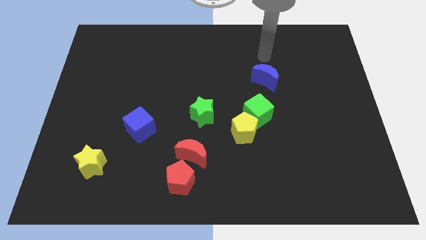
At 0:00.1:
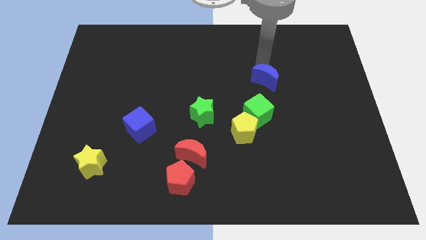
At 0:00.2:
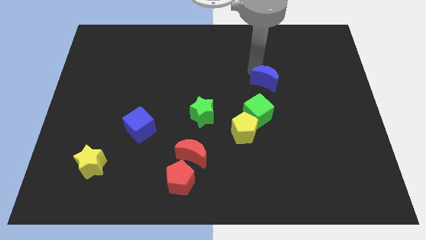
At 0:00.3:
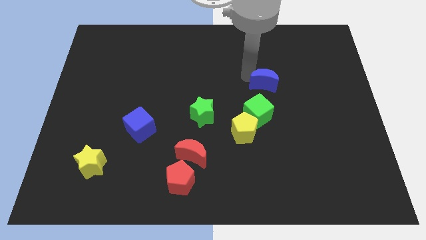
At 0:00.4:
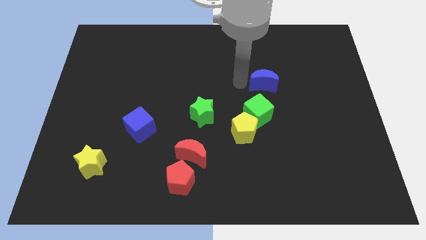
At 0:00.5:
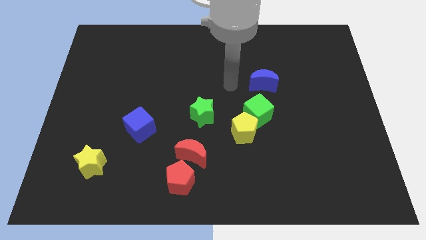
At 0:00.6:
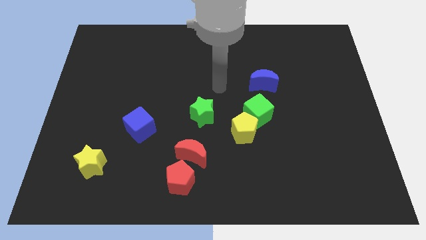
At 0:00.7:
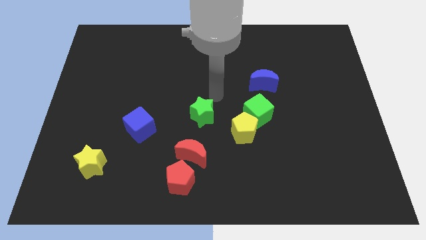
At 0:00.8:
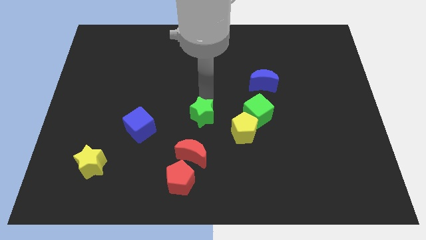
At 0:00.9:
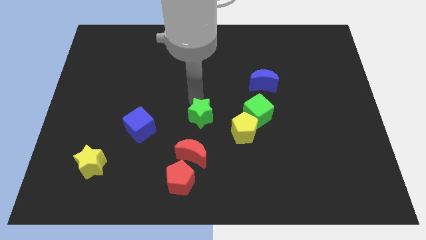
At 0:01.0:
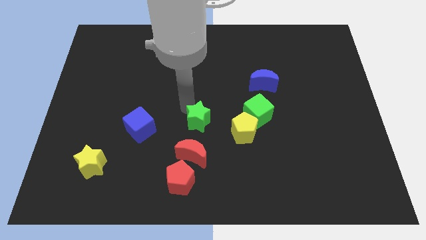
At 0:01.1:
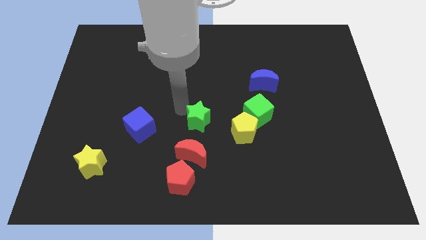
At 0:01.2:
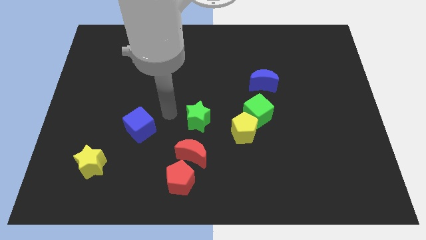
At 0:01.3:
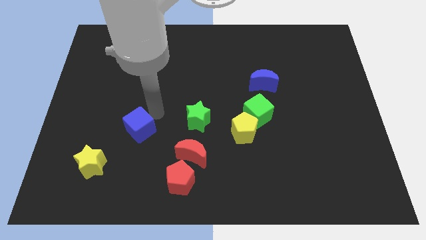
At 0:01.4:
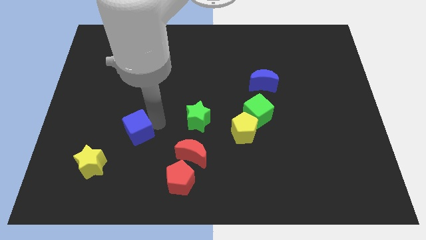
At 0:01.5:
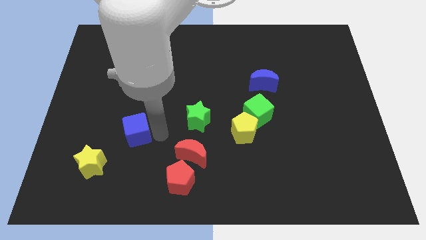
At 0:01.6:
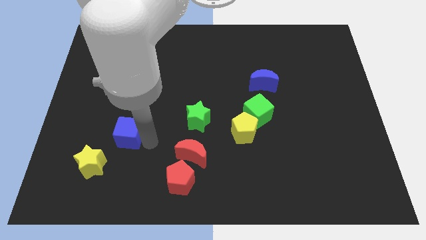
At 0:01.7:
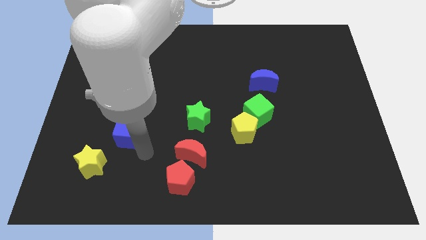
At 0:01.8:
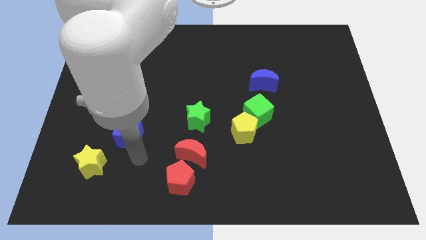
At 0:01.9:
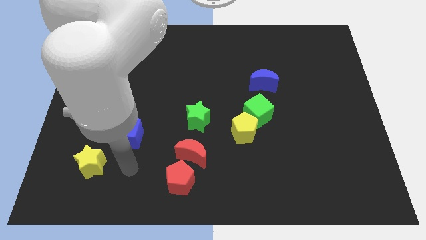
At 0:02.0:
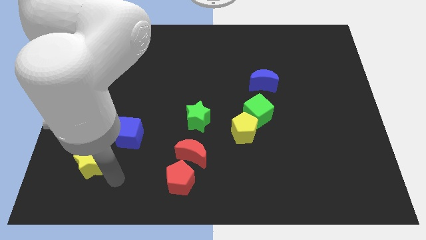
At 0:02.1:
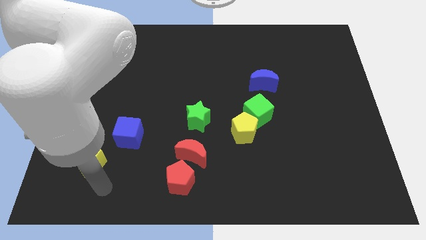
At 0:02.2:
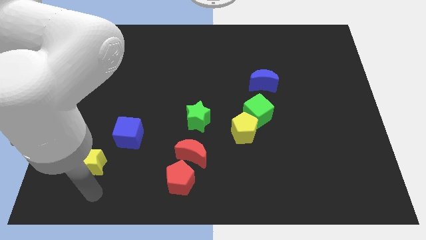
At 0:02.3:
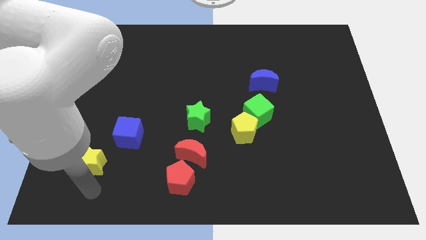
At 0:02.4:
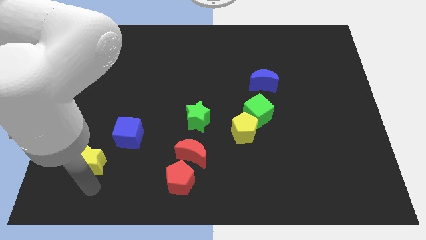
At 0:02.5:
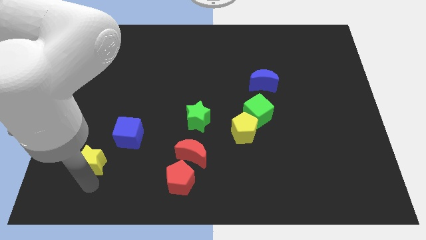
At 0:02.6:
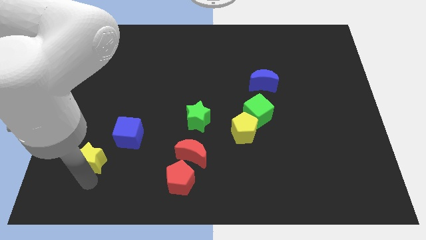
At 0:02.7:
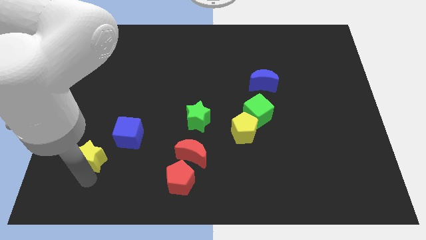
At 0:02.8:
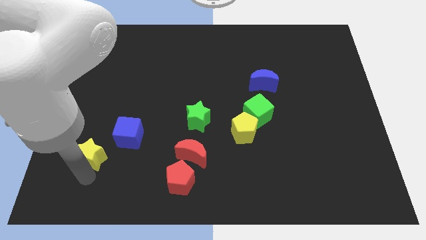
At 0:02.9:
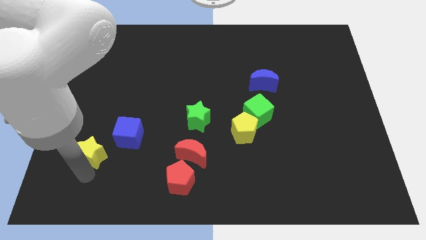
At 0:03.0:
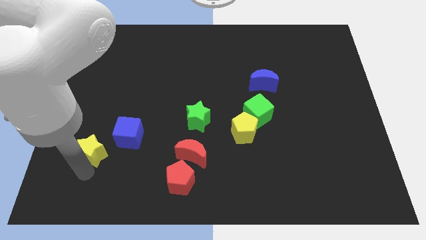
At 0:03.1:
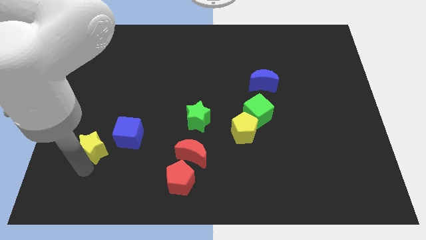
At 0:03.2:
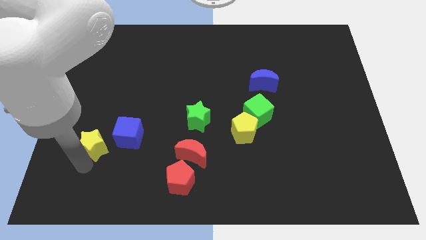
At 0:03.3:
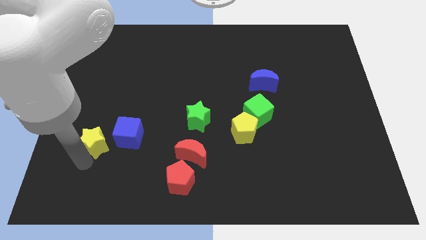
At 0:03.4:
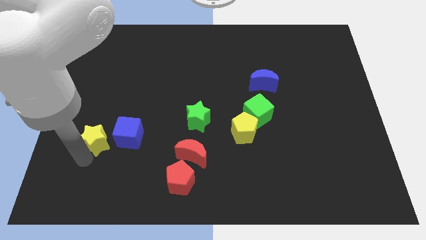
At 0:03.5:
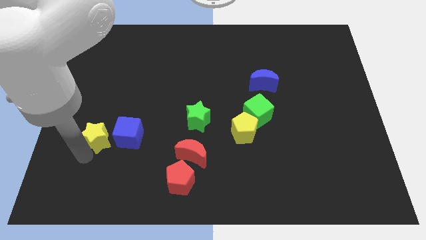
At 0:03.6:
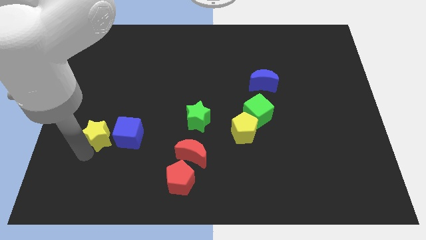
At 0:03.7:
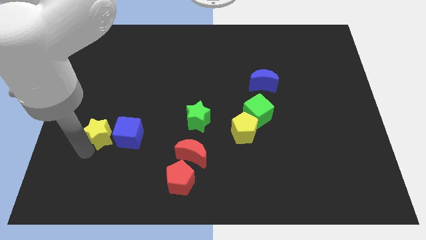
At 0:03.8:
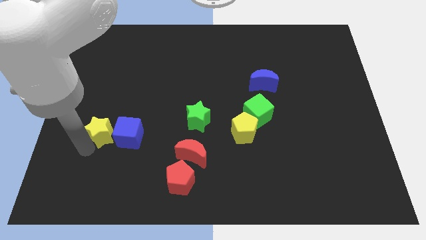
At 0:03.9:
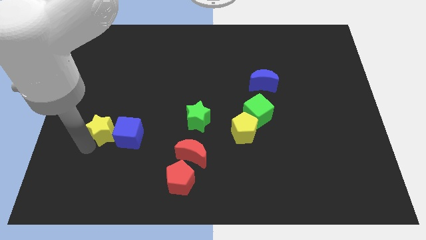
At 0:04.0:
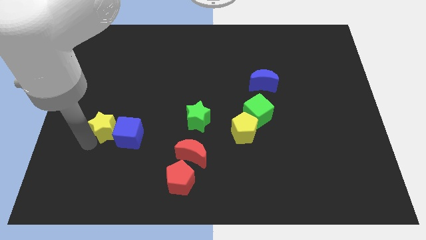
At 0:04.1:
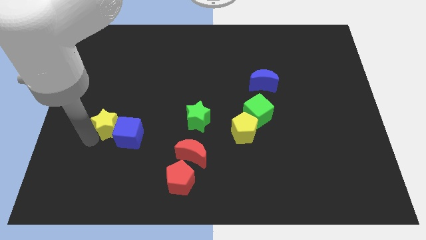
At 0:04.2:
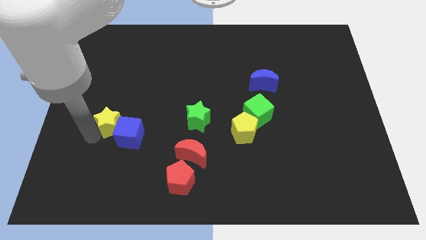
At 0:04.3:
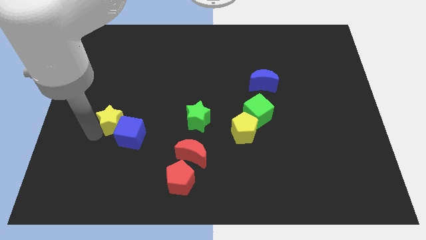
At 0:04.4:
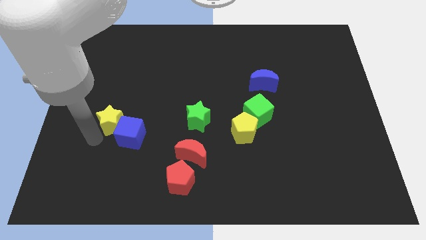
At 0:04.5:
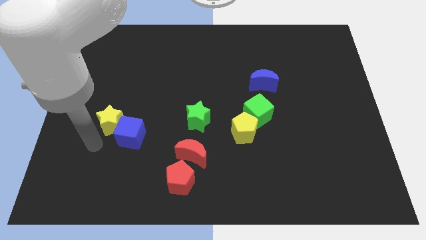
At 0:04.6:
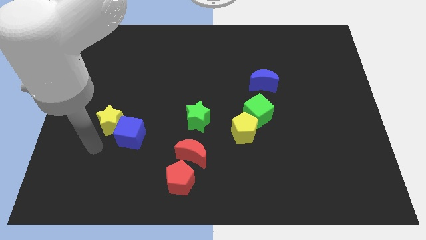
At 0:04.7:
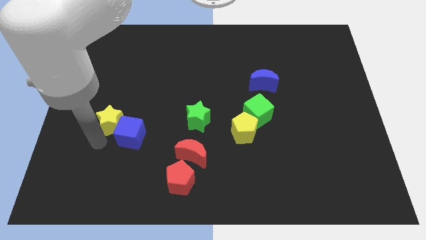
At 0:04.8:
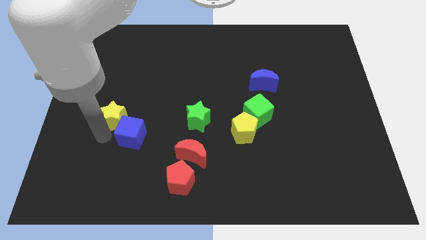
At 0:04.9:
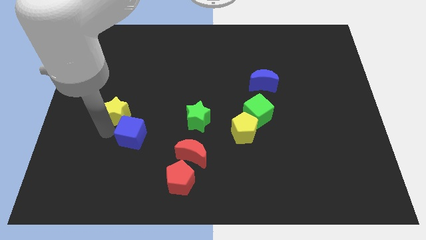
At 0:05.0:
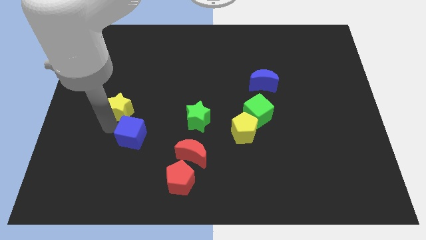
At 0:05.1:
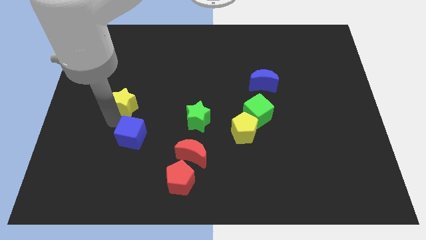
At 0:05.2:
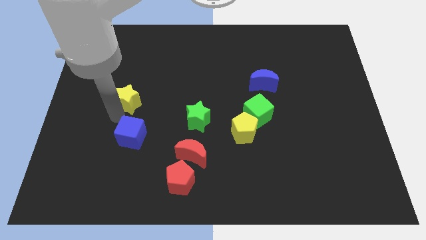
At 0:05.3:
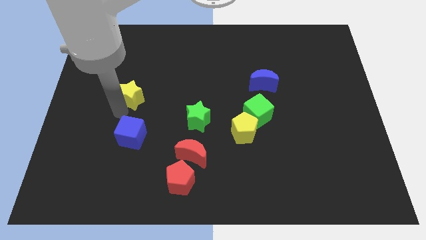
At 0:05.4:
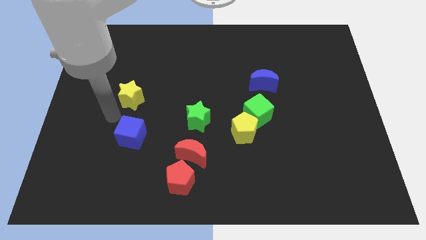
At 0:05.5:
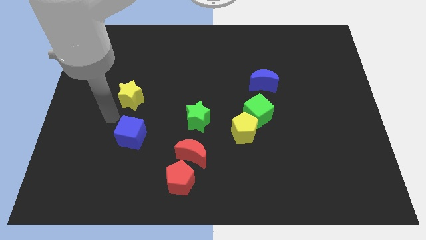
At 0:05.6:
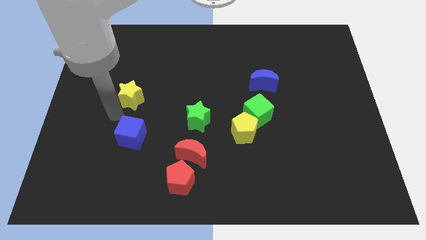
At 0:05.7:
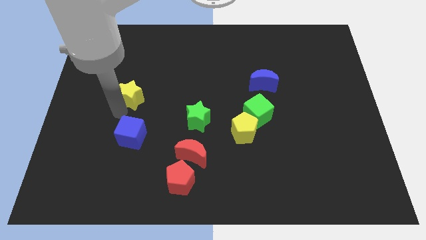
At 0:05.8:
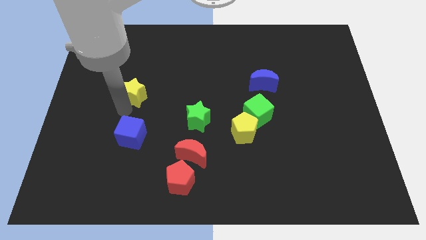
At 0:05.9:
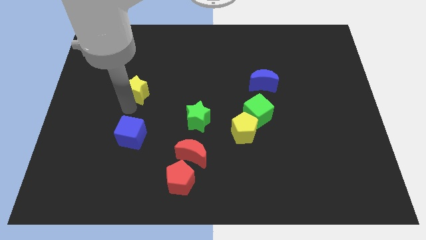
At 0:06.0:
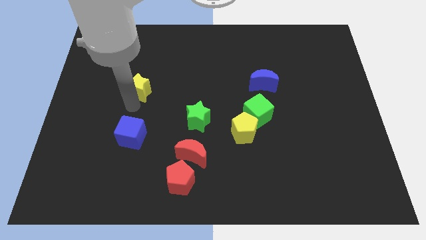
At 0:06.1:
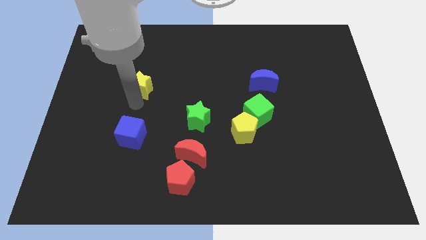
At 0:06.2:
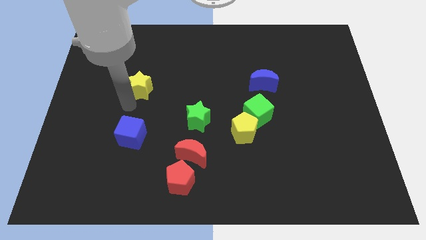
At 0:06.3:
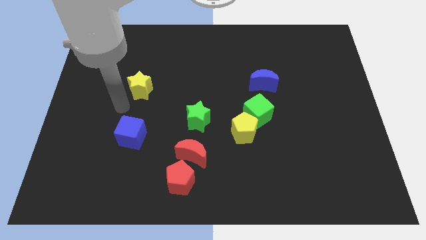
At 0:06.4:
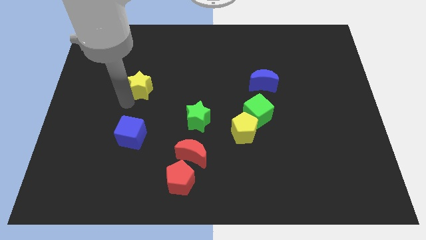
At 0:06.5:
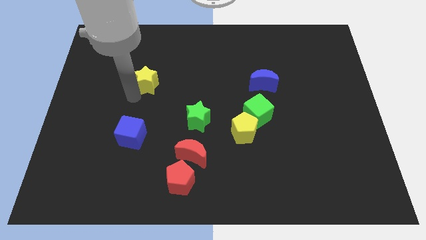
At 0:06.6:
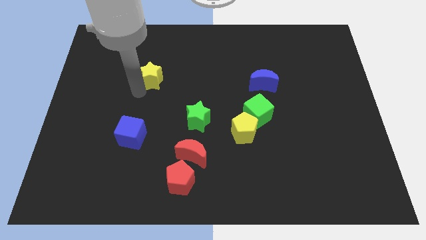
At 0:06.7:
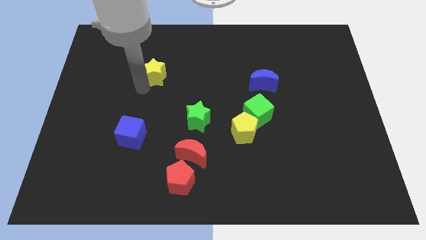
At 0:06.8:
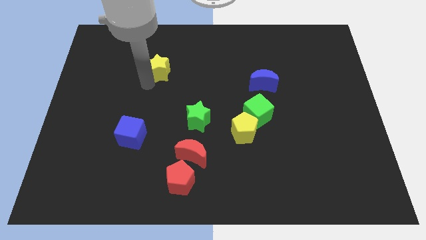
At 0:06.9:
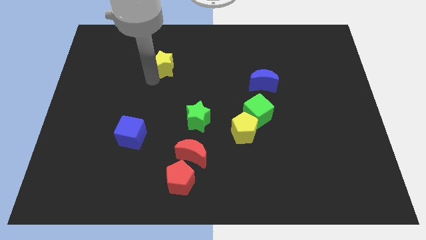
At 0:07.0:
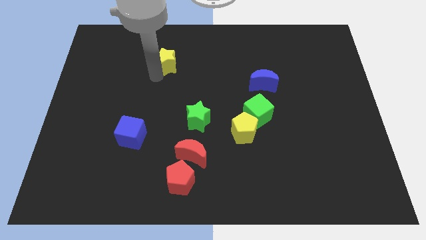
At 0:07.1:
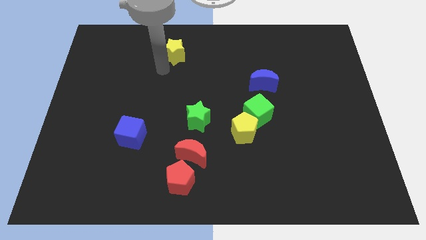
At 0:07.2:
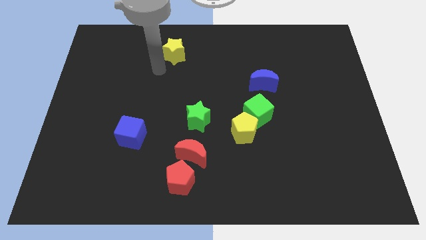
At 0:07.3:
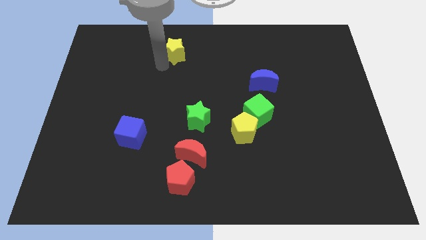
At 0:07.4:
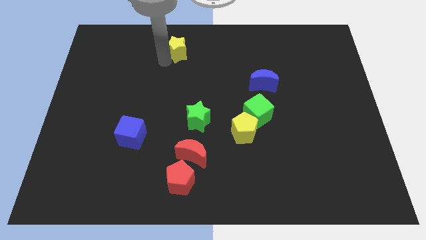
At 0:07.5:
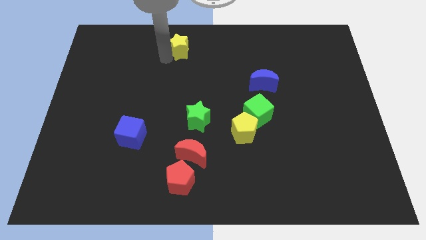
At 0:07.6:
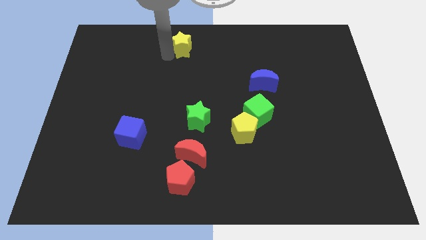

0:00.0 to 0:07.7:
slide the yellow star to the top side
